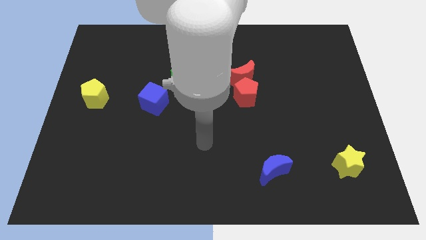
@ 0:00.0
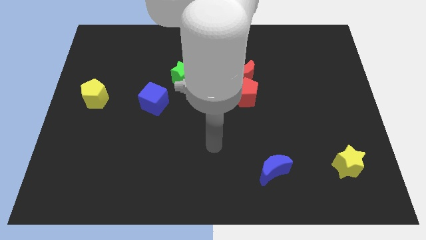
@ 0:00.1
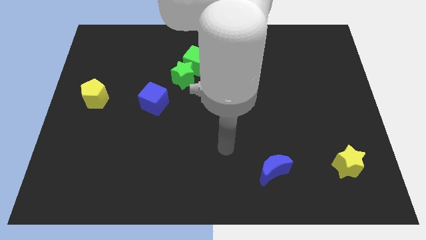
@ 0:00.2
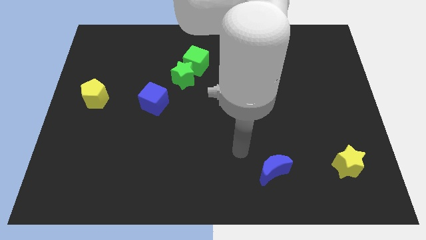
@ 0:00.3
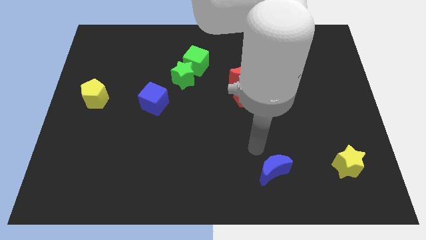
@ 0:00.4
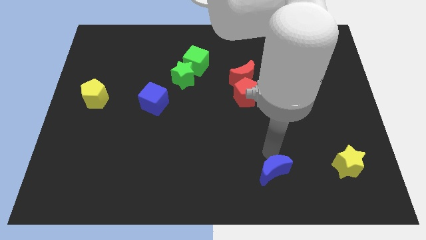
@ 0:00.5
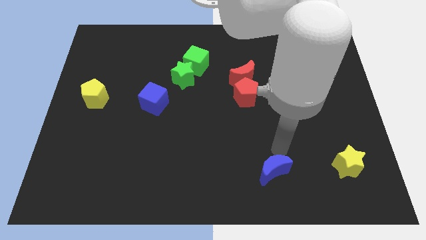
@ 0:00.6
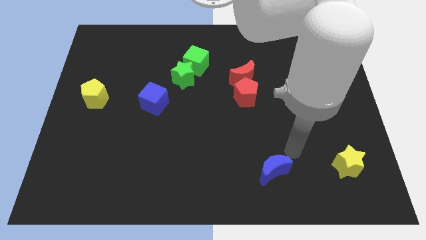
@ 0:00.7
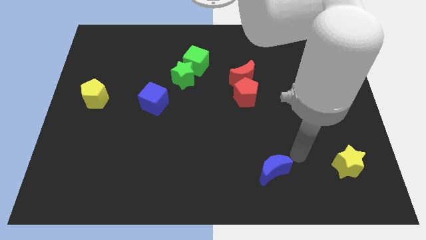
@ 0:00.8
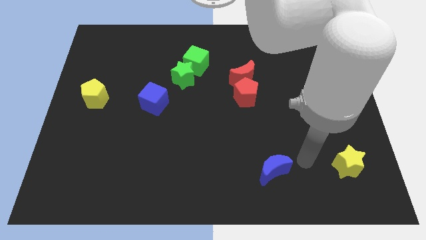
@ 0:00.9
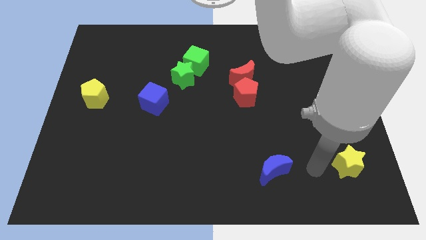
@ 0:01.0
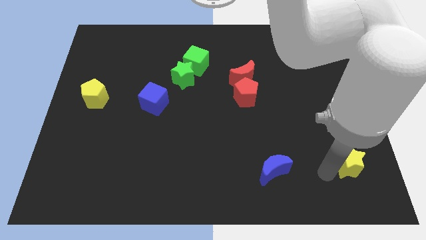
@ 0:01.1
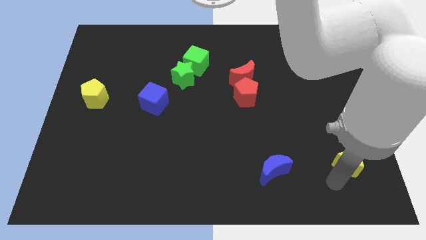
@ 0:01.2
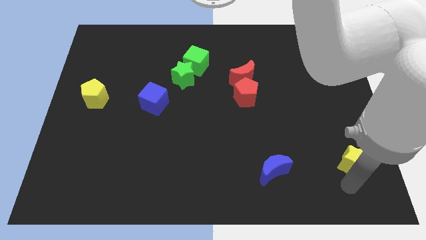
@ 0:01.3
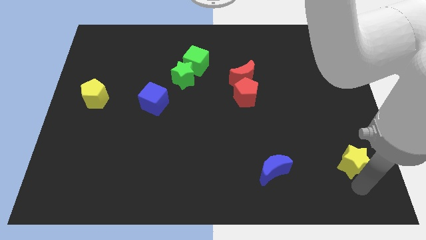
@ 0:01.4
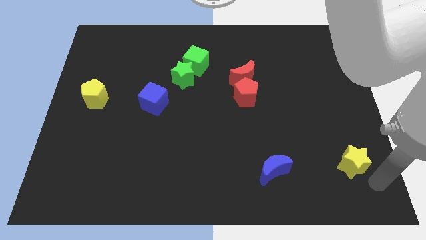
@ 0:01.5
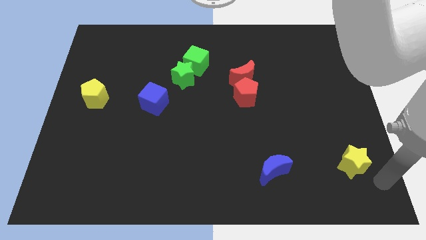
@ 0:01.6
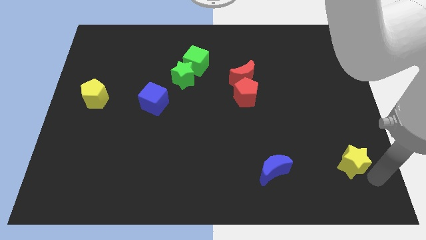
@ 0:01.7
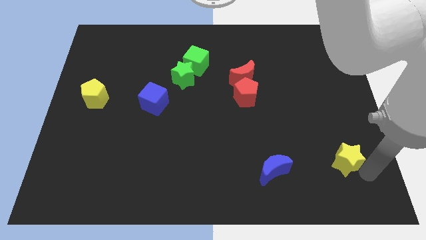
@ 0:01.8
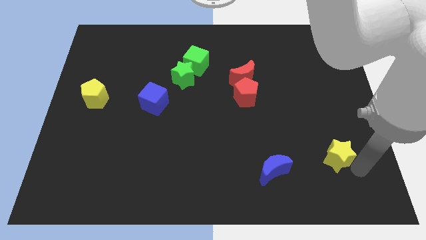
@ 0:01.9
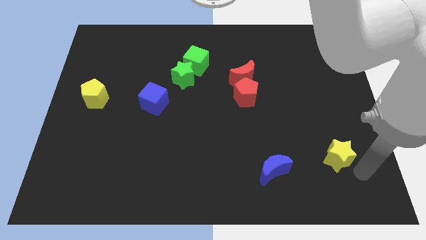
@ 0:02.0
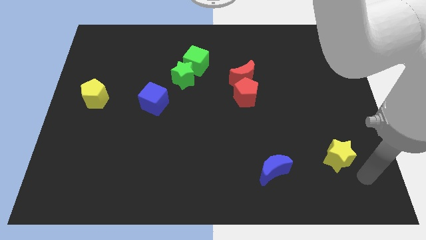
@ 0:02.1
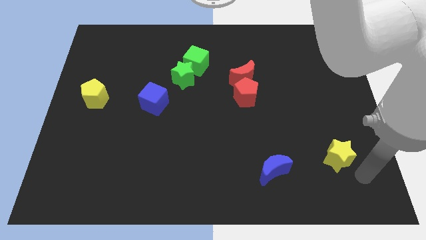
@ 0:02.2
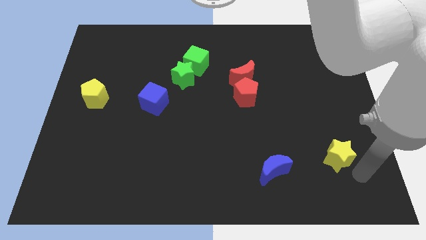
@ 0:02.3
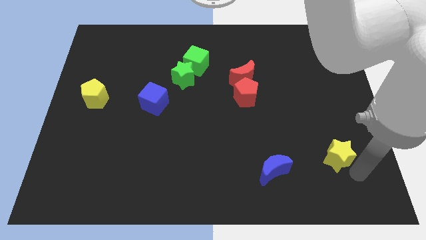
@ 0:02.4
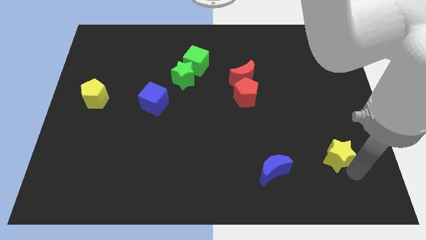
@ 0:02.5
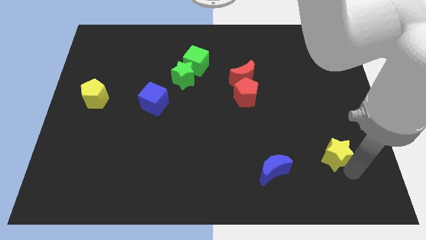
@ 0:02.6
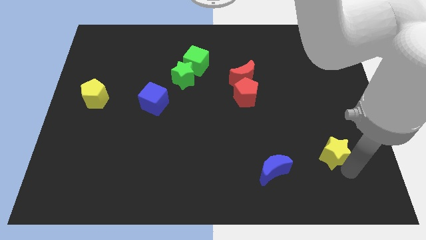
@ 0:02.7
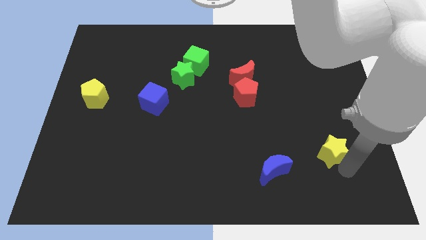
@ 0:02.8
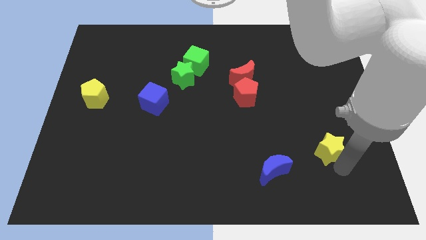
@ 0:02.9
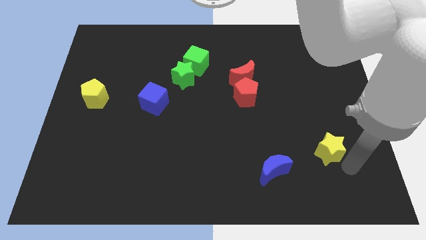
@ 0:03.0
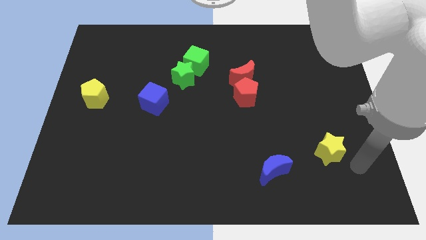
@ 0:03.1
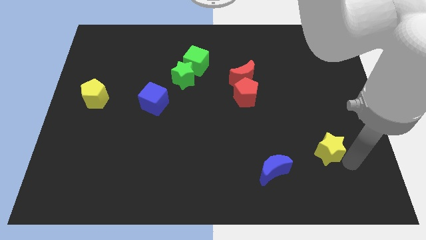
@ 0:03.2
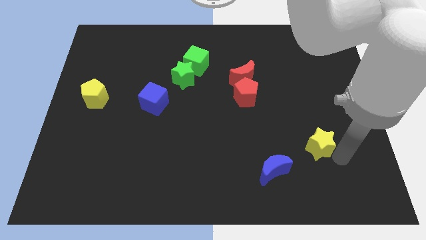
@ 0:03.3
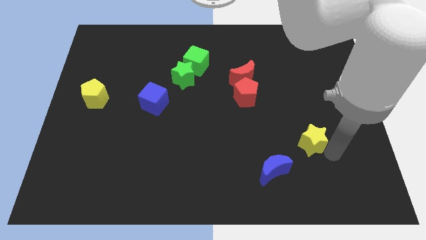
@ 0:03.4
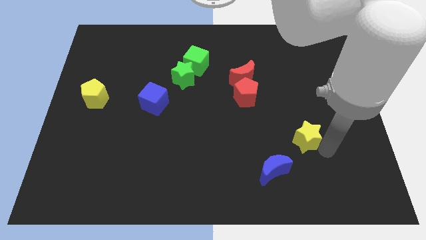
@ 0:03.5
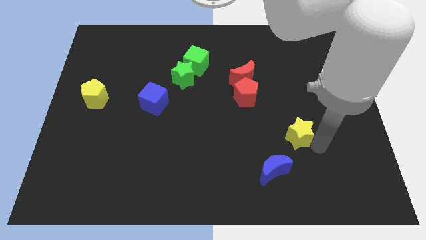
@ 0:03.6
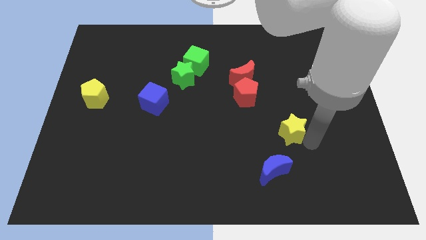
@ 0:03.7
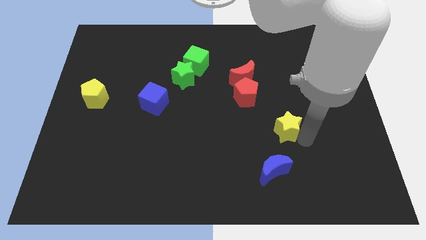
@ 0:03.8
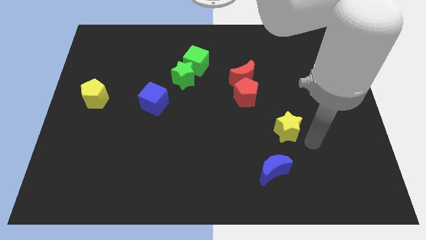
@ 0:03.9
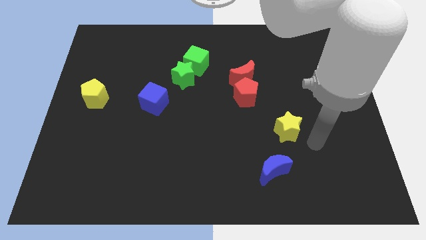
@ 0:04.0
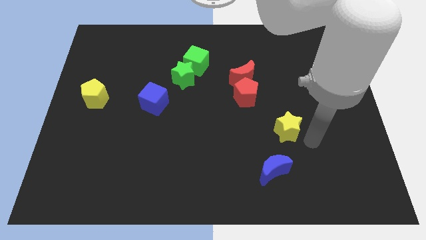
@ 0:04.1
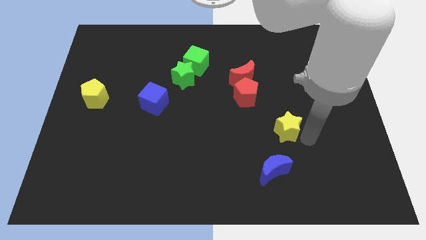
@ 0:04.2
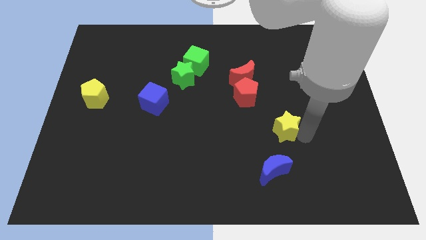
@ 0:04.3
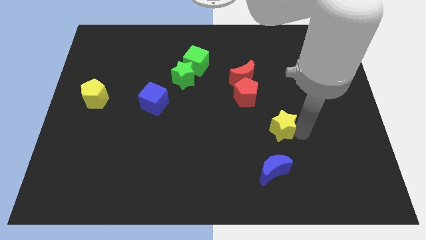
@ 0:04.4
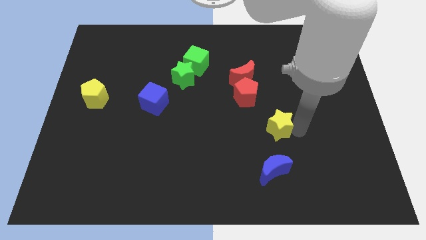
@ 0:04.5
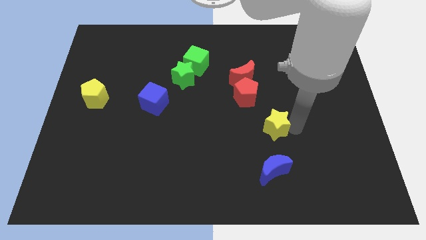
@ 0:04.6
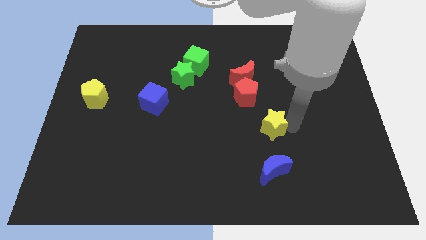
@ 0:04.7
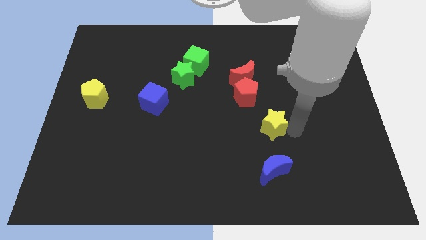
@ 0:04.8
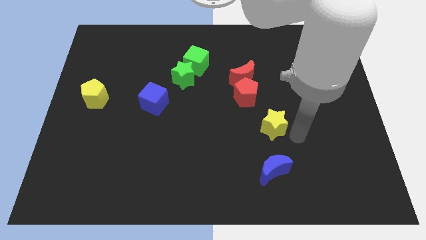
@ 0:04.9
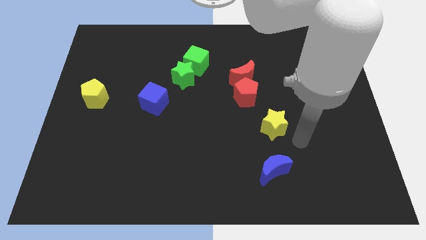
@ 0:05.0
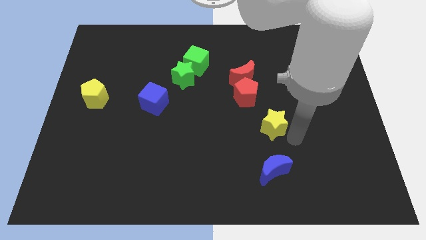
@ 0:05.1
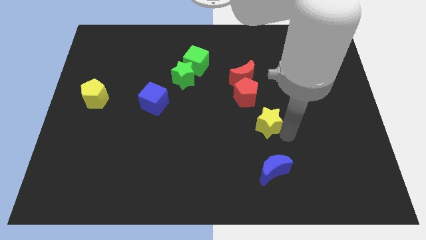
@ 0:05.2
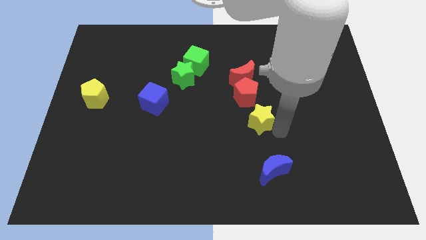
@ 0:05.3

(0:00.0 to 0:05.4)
push the yellow star to the middle of the board

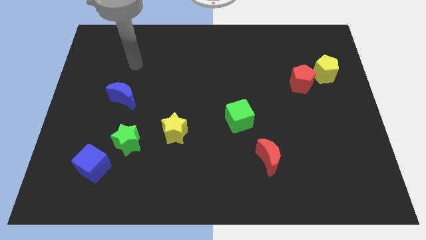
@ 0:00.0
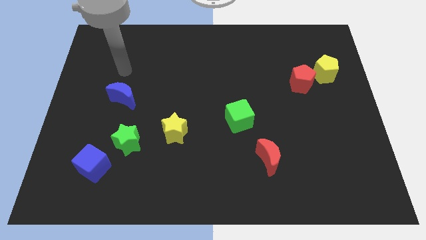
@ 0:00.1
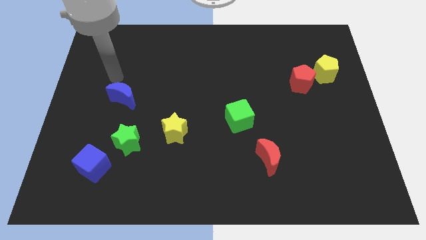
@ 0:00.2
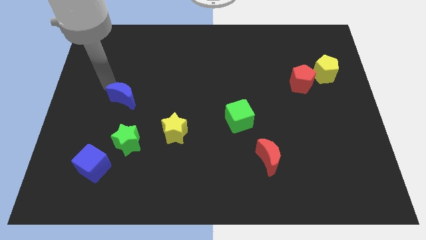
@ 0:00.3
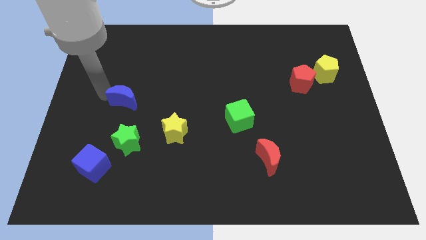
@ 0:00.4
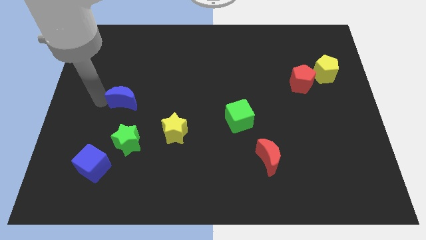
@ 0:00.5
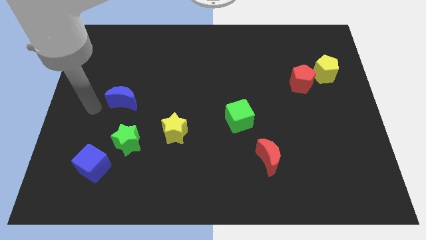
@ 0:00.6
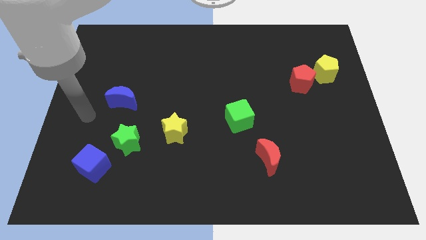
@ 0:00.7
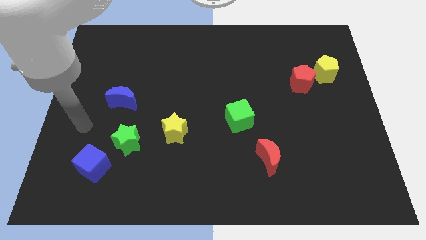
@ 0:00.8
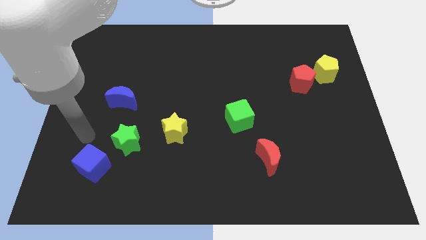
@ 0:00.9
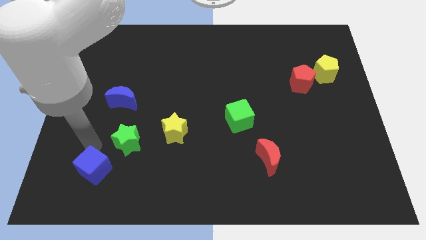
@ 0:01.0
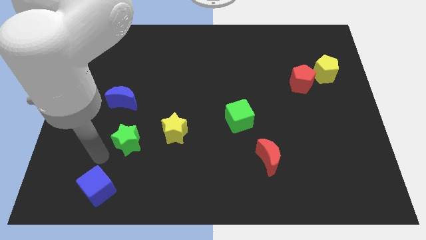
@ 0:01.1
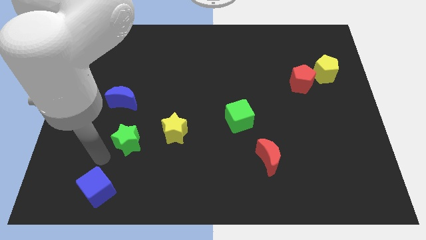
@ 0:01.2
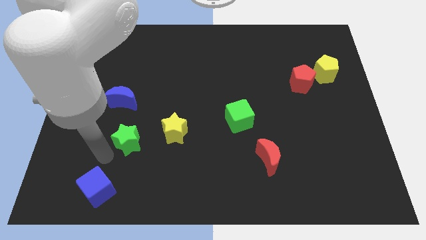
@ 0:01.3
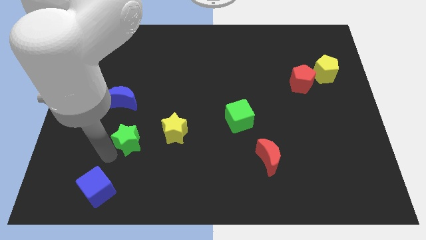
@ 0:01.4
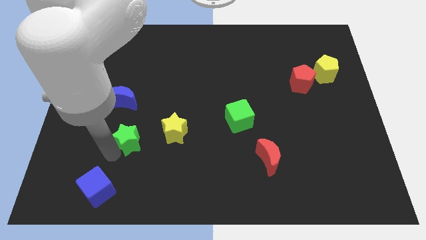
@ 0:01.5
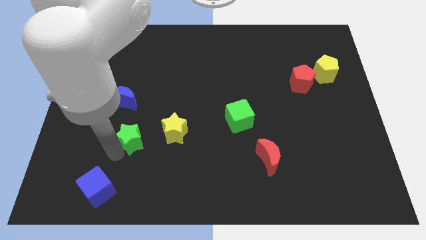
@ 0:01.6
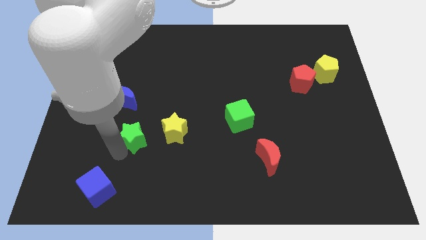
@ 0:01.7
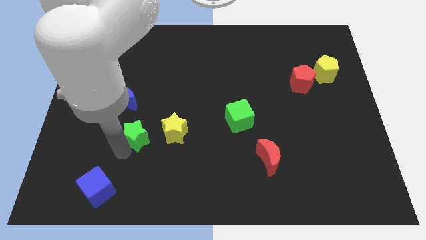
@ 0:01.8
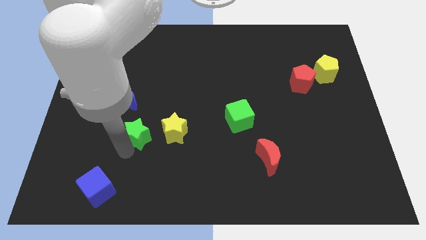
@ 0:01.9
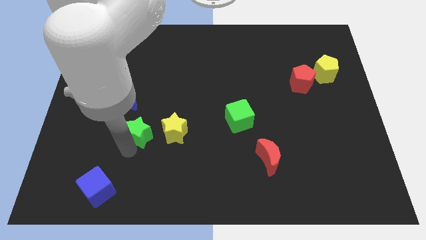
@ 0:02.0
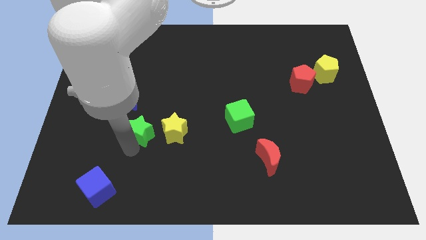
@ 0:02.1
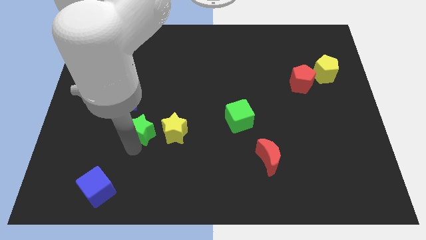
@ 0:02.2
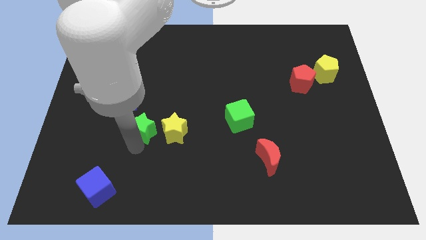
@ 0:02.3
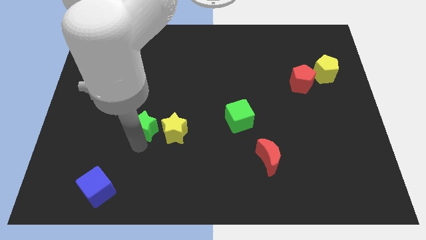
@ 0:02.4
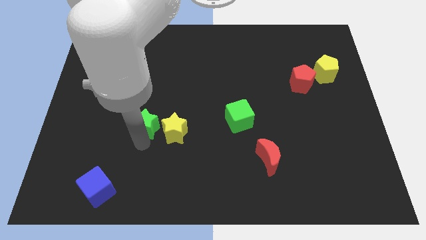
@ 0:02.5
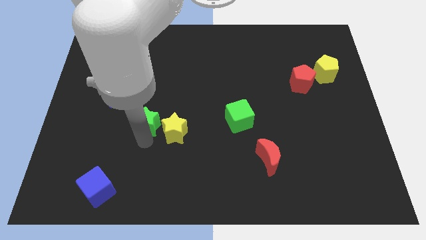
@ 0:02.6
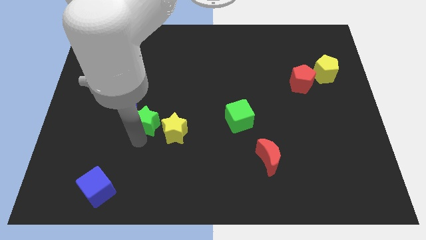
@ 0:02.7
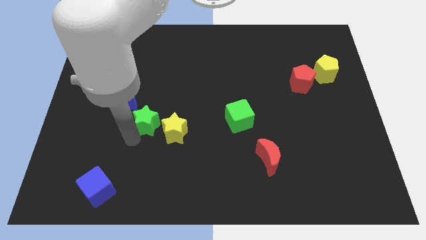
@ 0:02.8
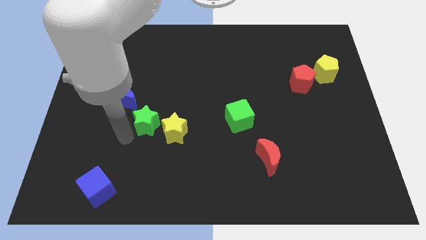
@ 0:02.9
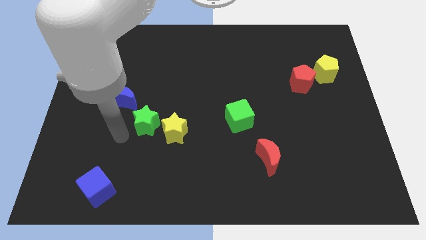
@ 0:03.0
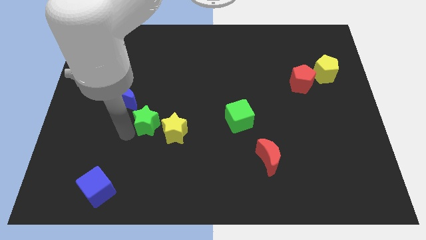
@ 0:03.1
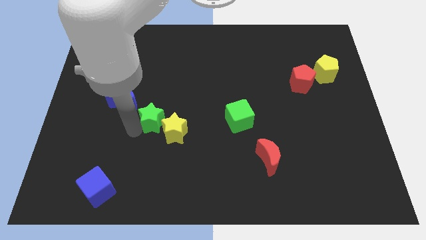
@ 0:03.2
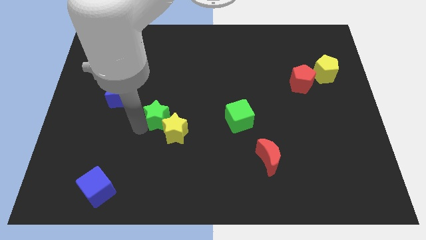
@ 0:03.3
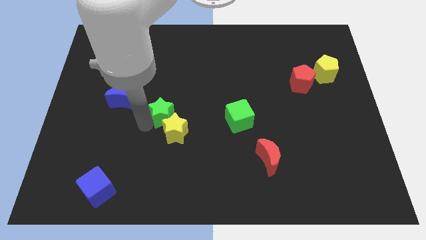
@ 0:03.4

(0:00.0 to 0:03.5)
put the green star to the center
